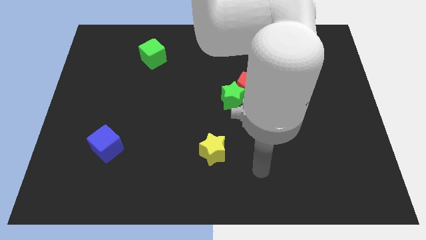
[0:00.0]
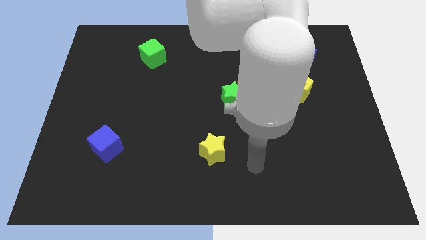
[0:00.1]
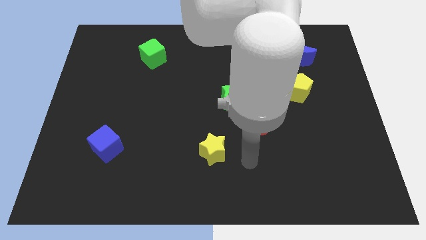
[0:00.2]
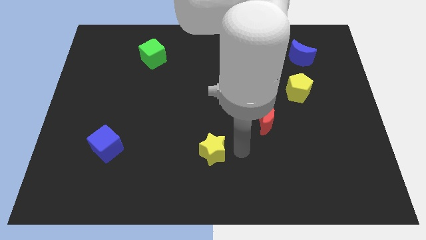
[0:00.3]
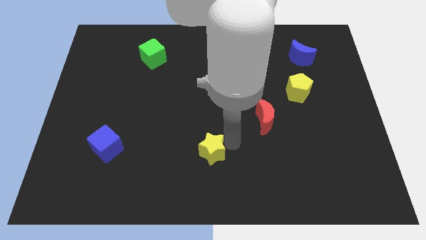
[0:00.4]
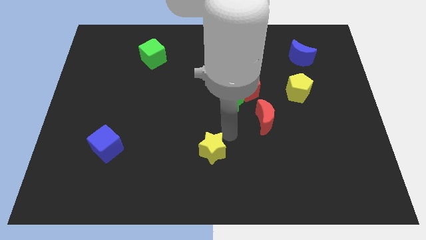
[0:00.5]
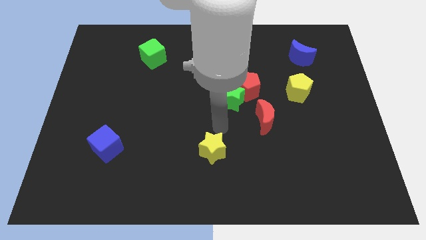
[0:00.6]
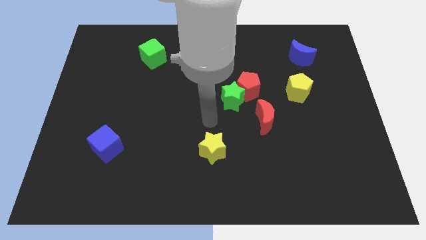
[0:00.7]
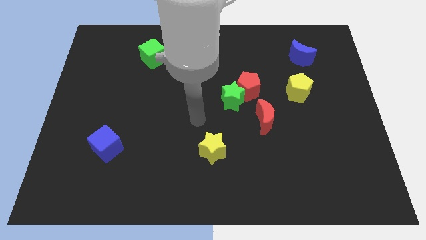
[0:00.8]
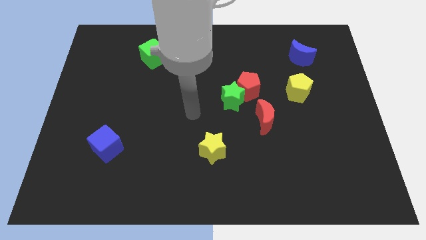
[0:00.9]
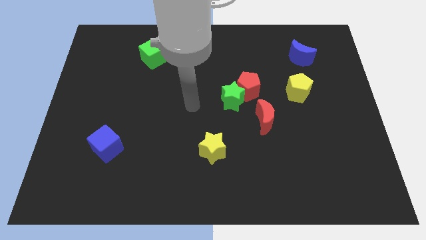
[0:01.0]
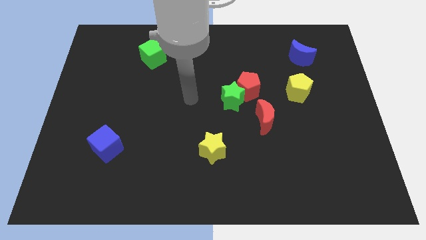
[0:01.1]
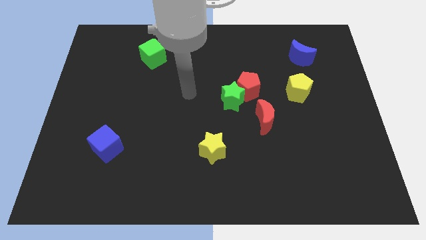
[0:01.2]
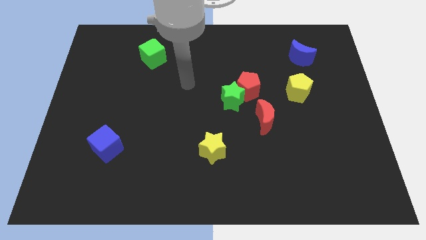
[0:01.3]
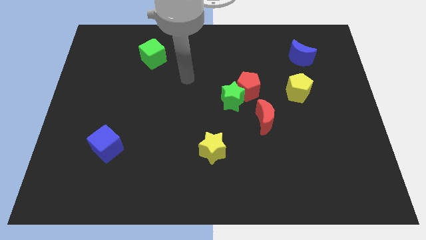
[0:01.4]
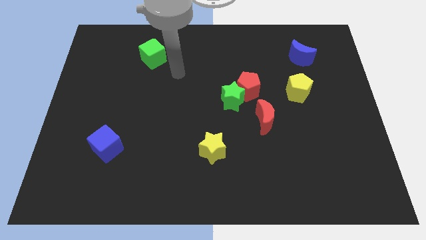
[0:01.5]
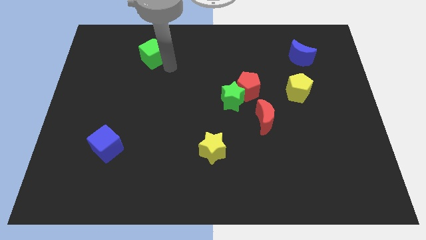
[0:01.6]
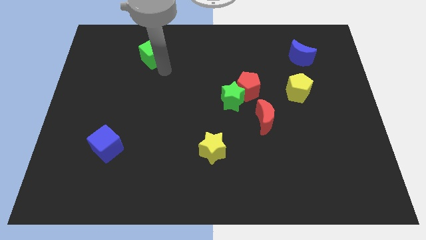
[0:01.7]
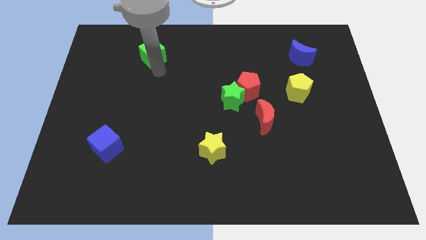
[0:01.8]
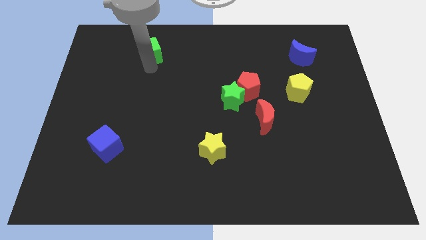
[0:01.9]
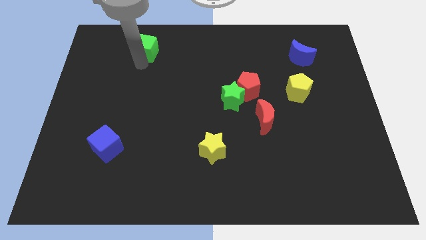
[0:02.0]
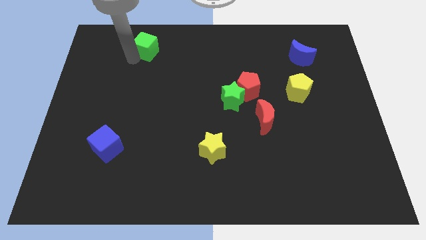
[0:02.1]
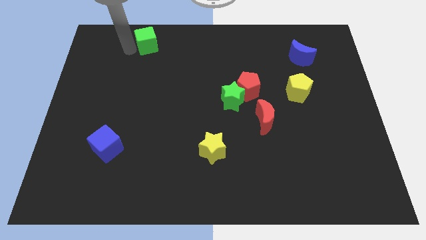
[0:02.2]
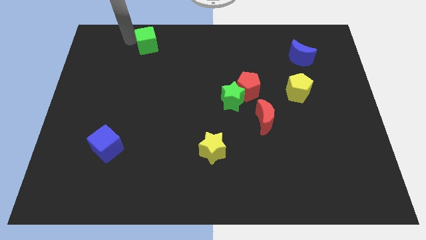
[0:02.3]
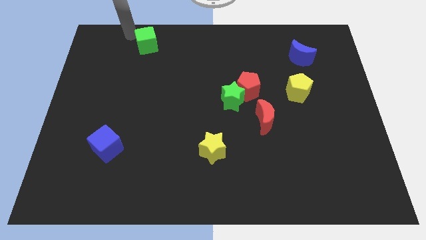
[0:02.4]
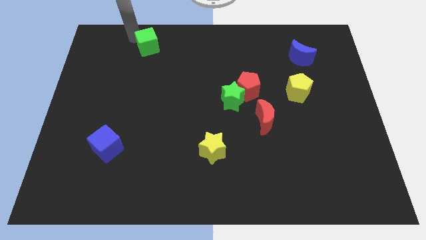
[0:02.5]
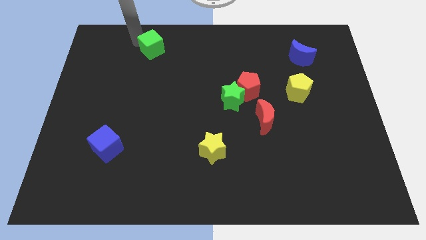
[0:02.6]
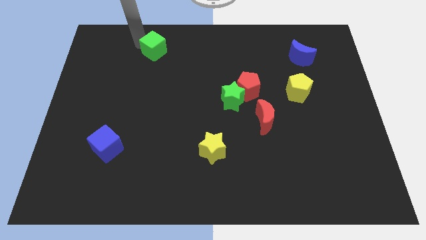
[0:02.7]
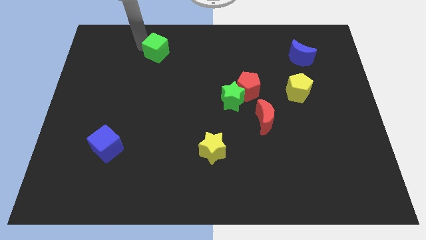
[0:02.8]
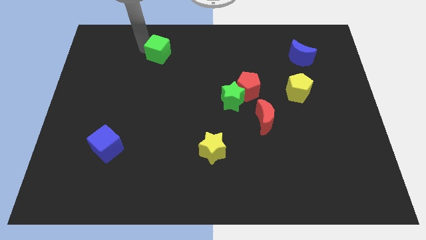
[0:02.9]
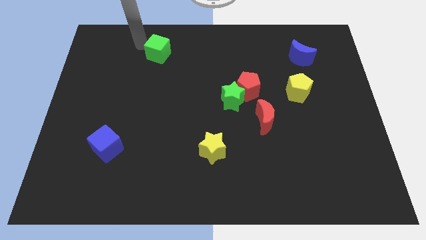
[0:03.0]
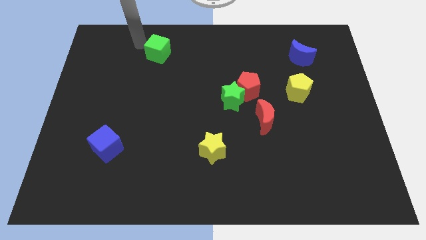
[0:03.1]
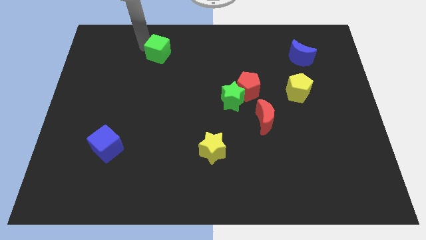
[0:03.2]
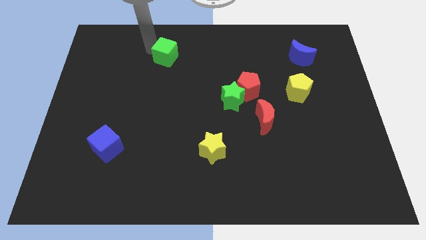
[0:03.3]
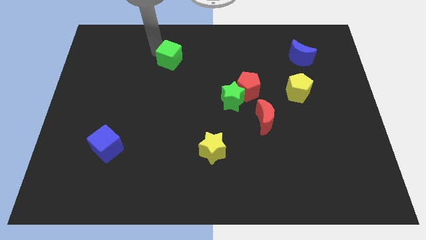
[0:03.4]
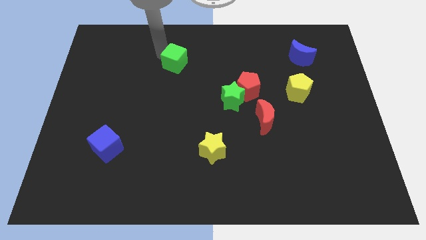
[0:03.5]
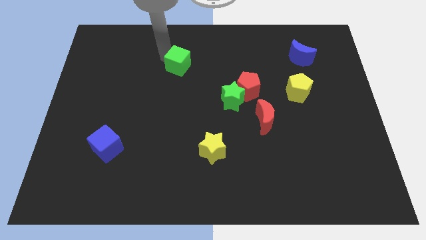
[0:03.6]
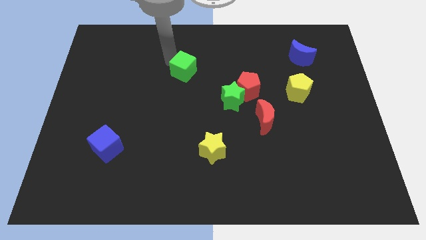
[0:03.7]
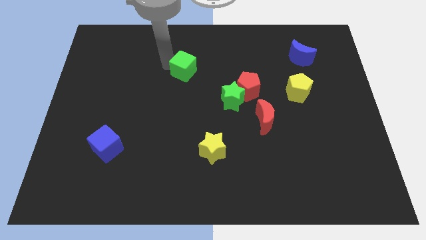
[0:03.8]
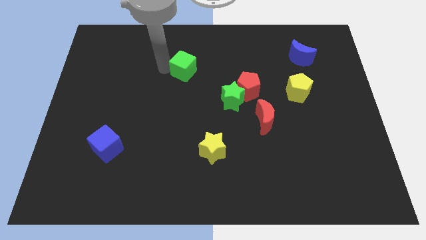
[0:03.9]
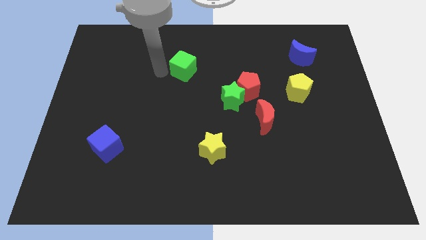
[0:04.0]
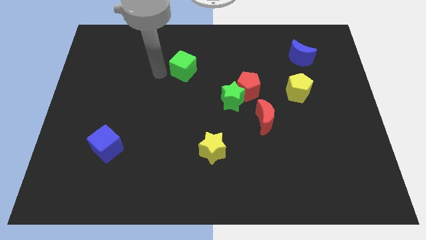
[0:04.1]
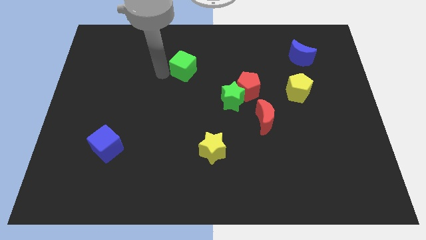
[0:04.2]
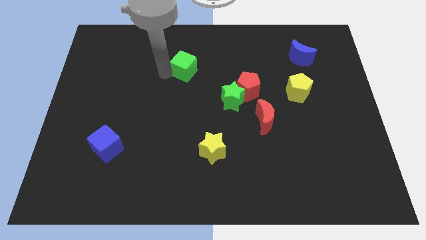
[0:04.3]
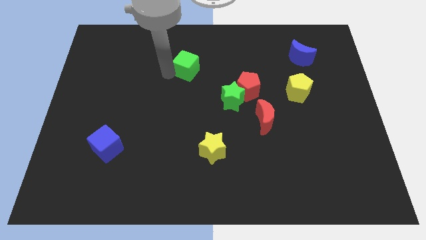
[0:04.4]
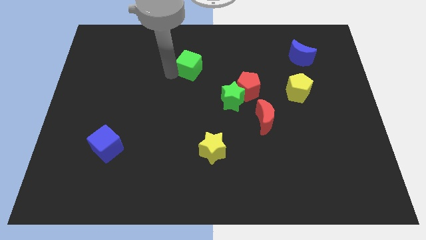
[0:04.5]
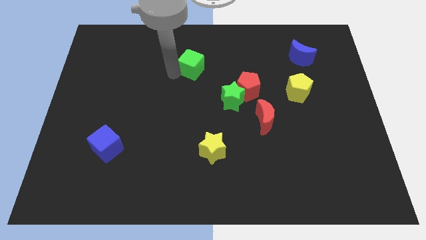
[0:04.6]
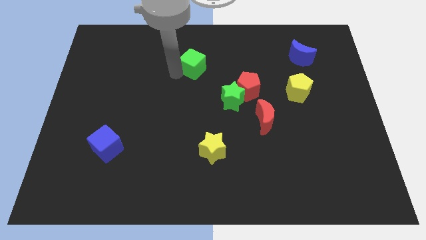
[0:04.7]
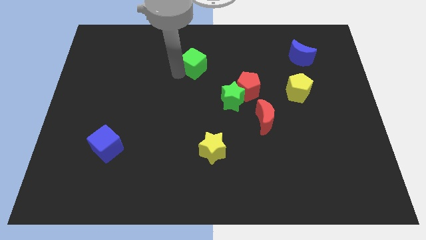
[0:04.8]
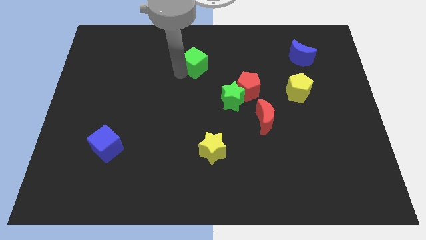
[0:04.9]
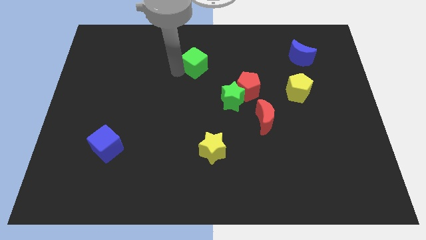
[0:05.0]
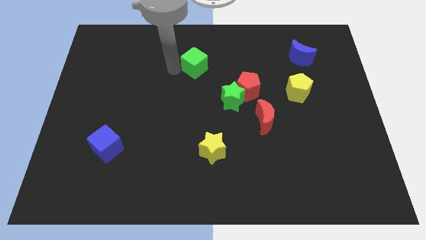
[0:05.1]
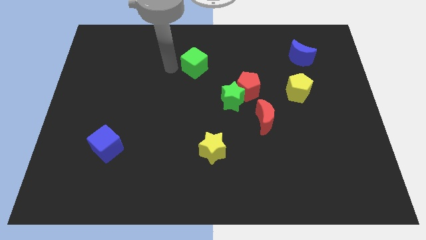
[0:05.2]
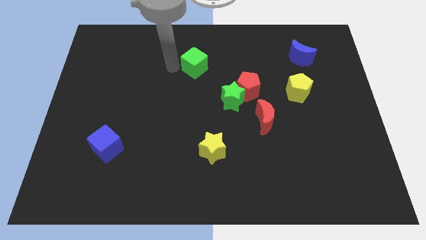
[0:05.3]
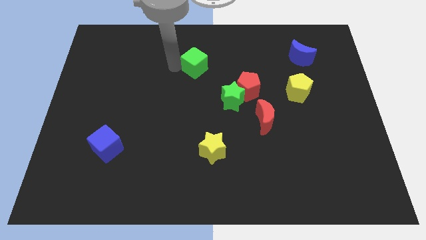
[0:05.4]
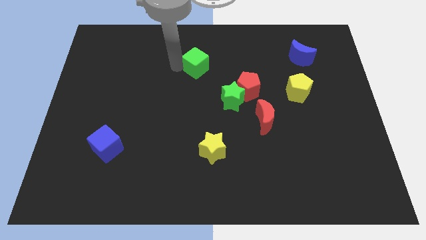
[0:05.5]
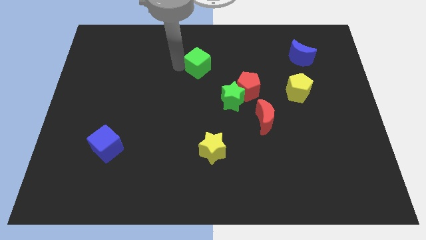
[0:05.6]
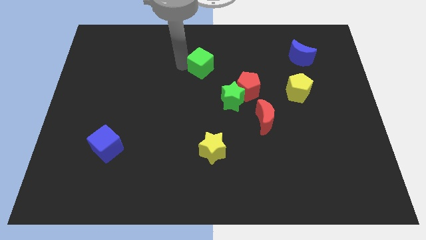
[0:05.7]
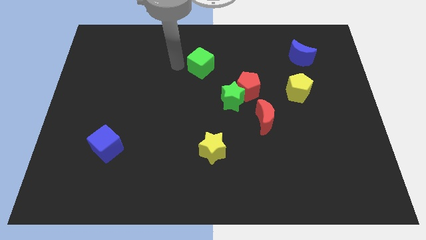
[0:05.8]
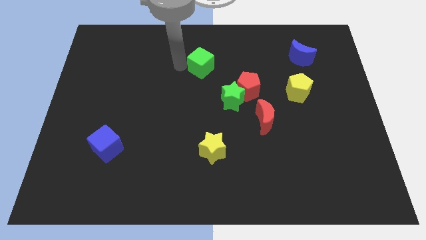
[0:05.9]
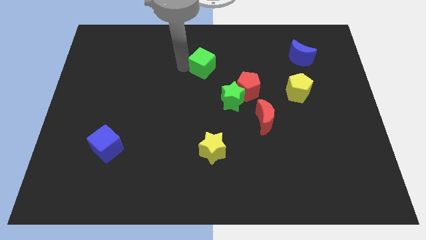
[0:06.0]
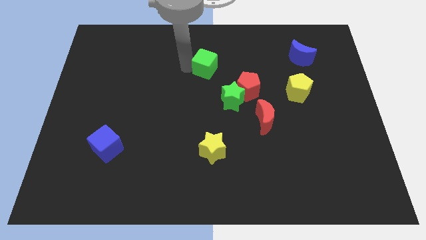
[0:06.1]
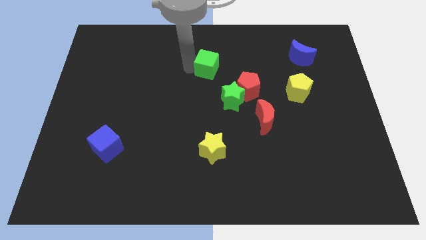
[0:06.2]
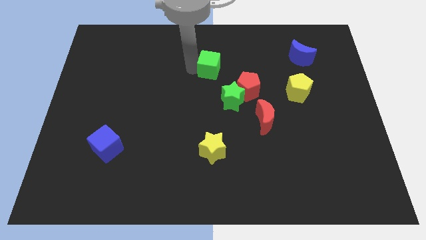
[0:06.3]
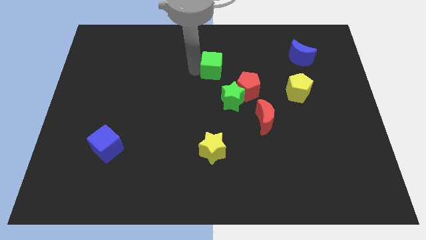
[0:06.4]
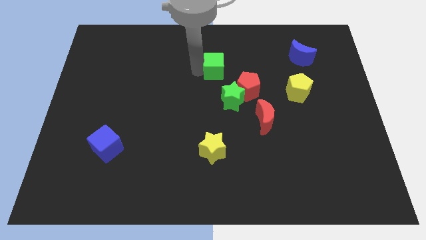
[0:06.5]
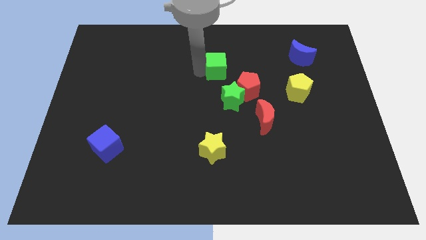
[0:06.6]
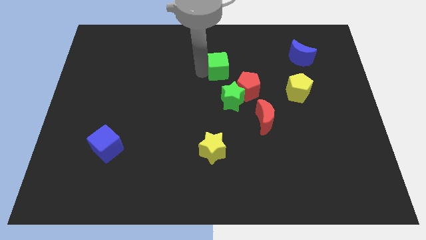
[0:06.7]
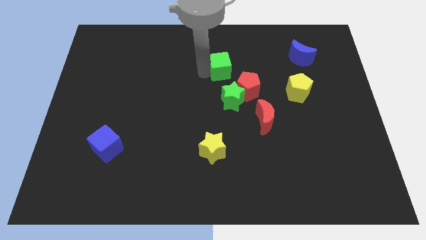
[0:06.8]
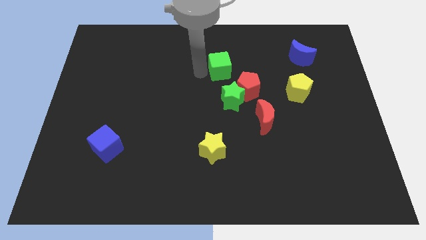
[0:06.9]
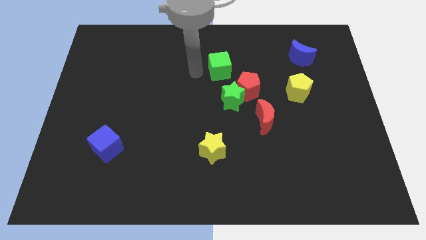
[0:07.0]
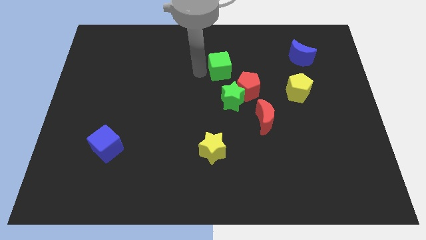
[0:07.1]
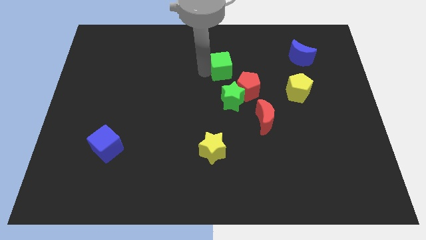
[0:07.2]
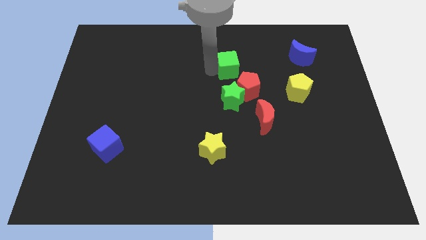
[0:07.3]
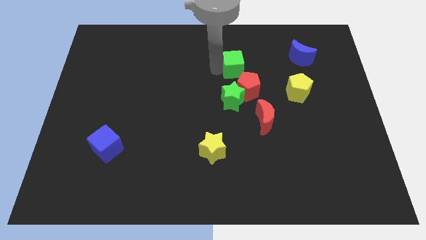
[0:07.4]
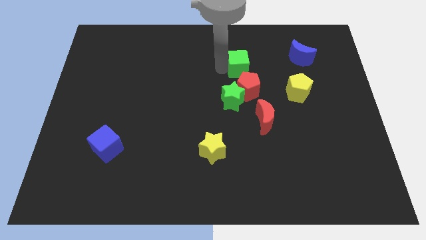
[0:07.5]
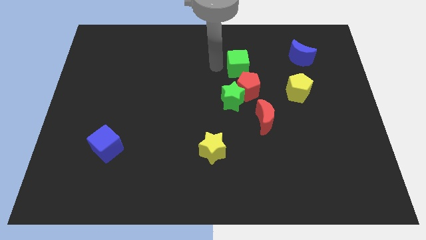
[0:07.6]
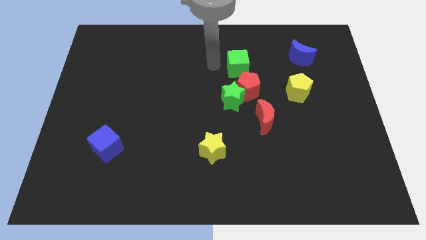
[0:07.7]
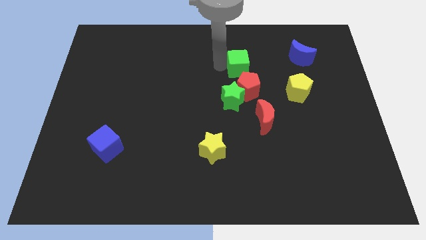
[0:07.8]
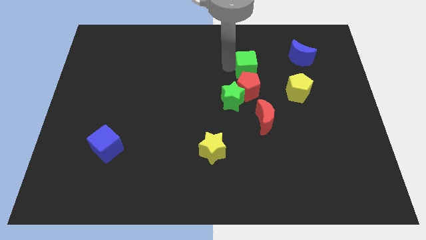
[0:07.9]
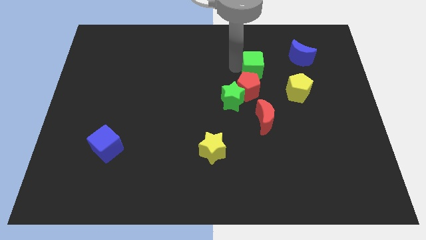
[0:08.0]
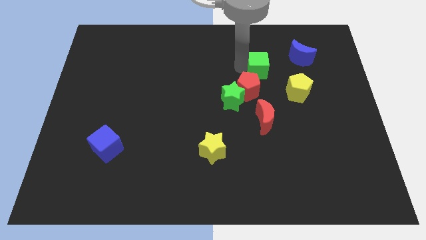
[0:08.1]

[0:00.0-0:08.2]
push the green cube above the red moon
